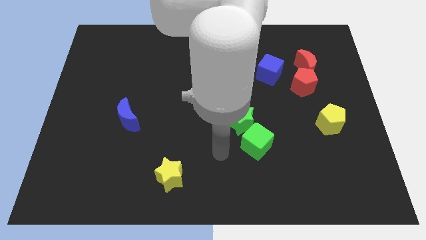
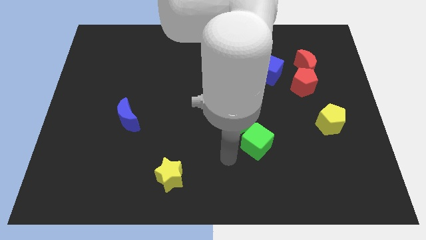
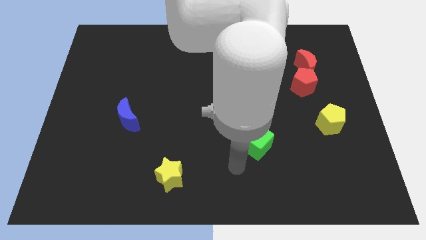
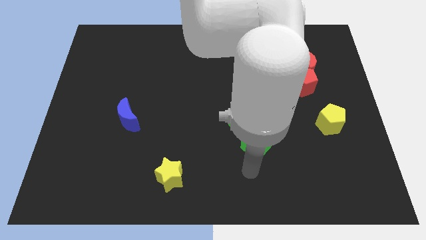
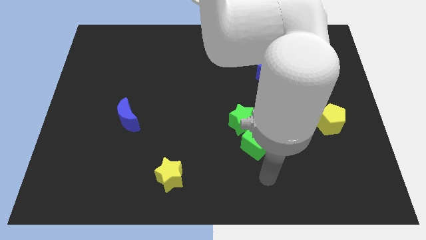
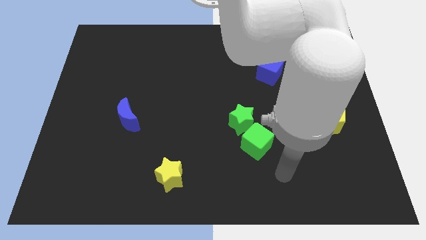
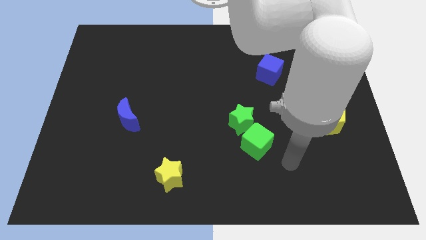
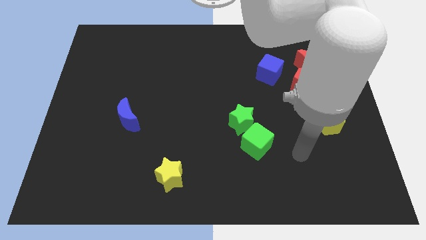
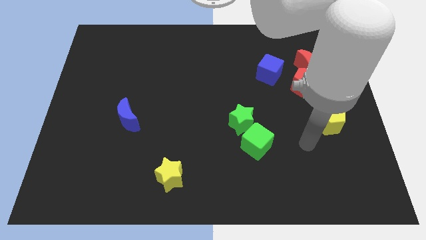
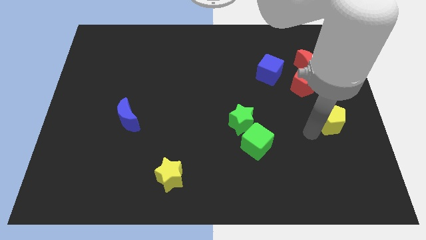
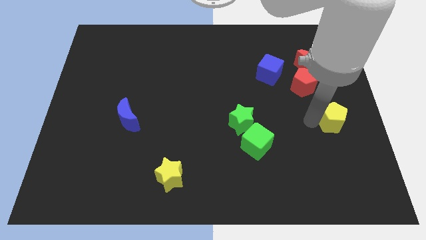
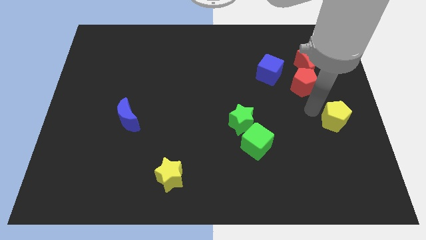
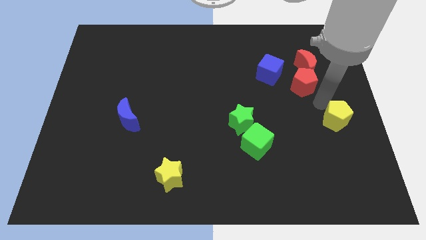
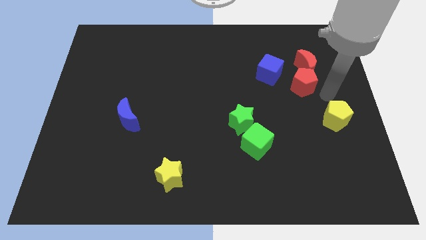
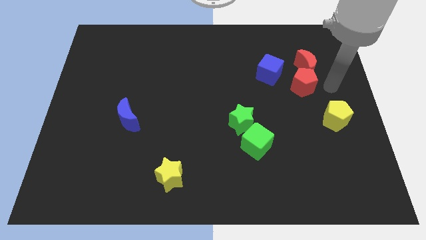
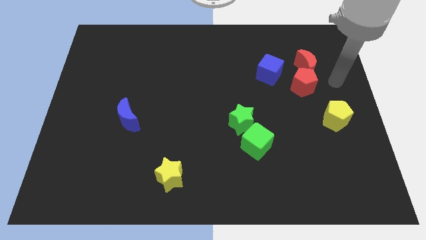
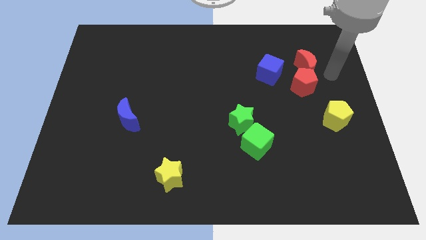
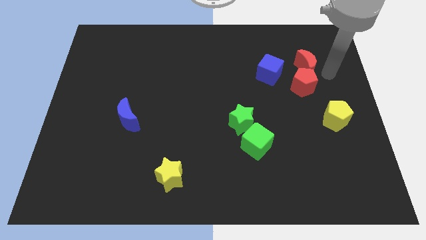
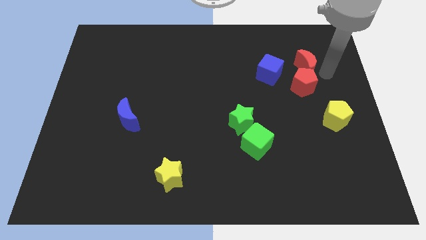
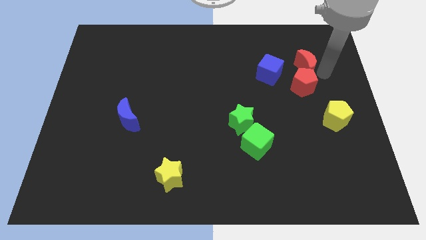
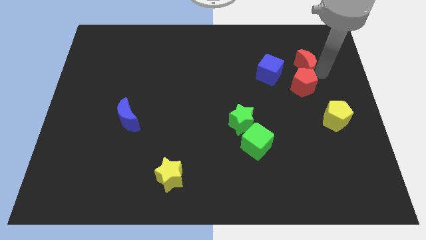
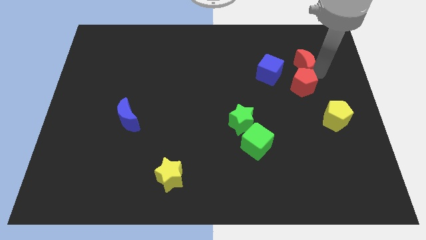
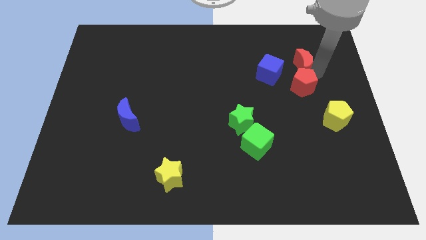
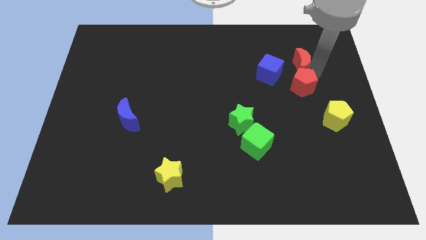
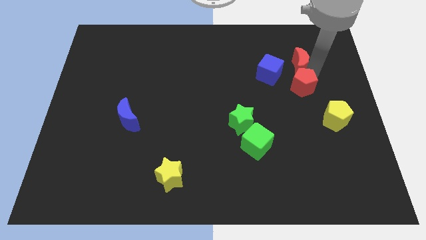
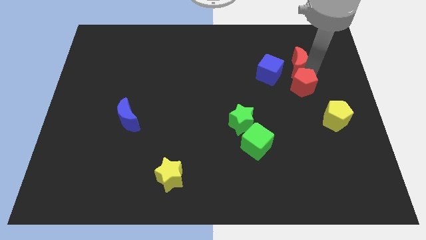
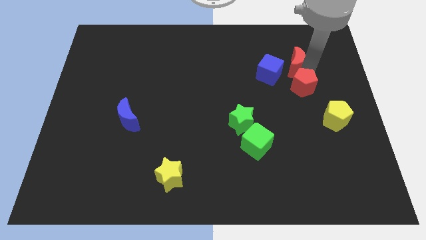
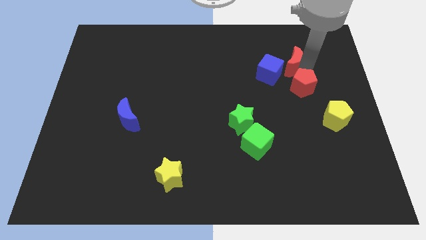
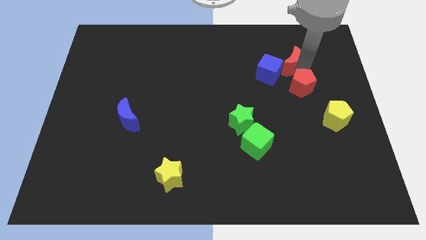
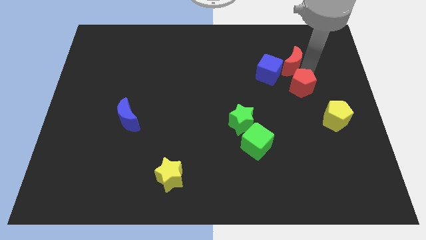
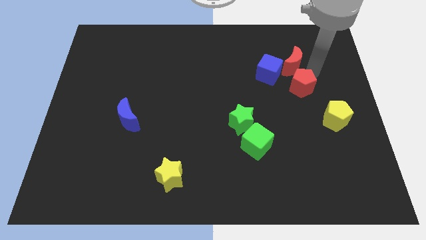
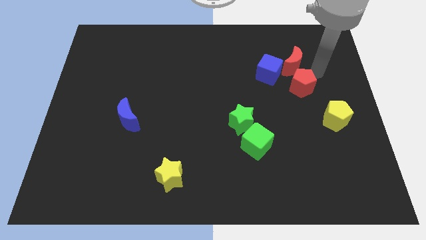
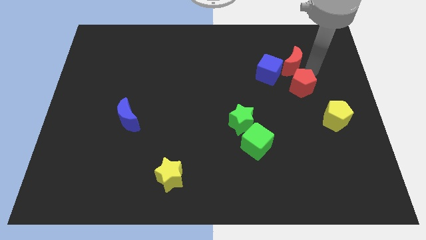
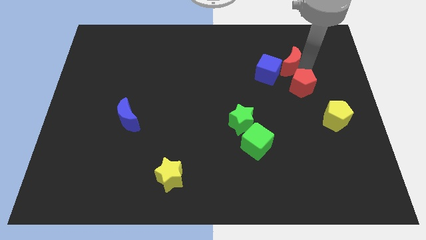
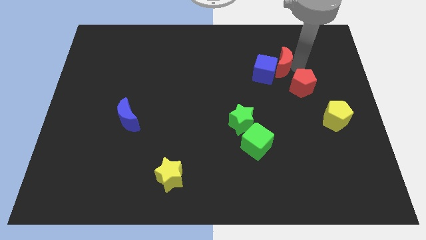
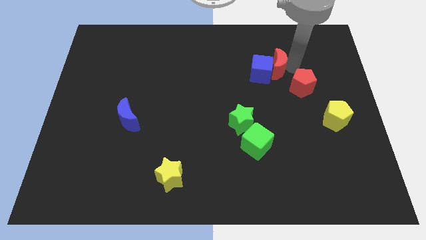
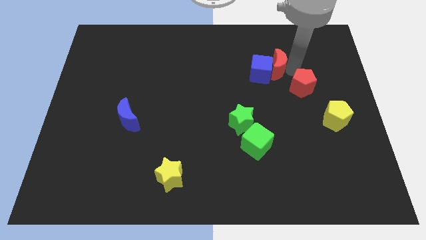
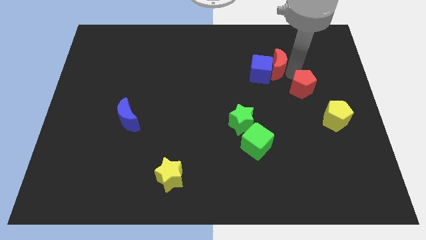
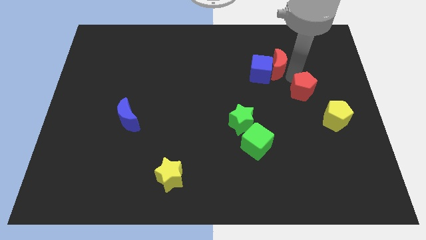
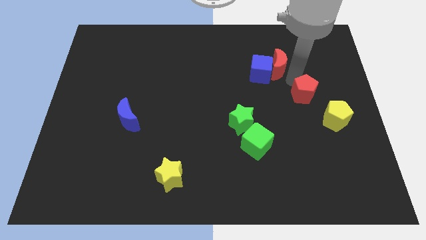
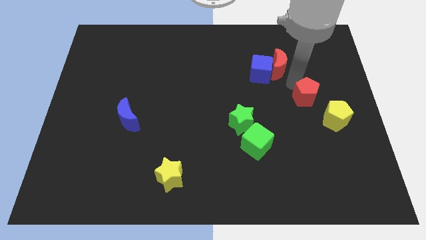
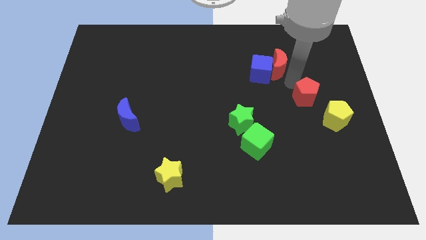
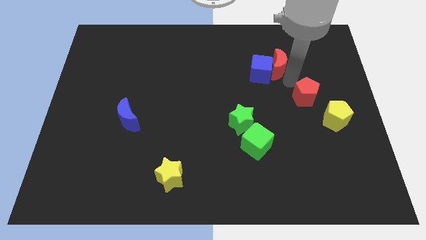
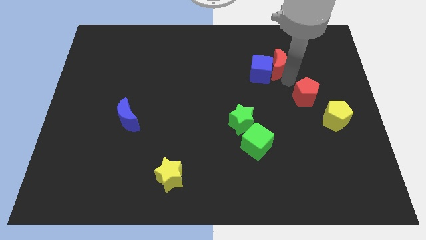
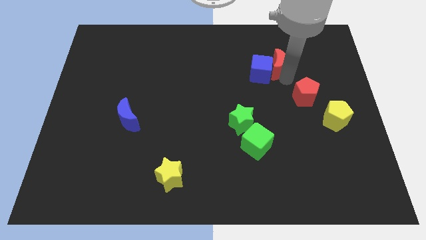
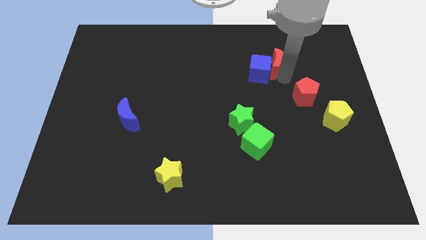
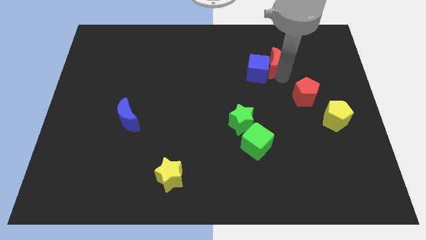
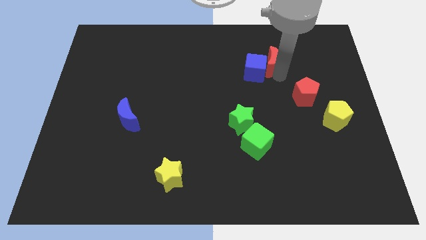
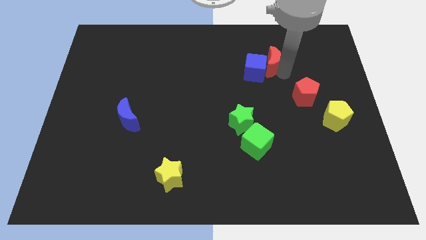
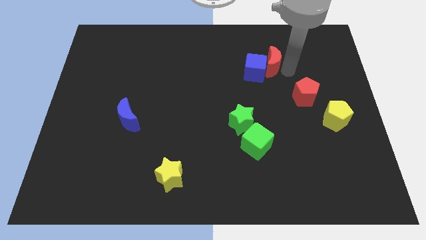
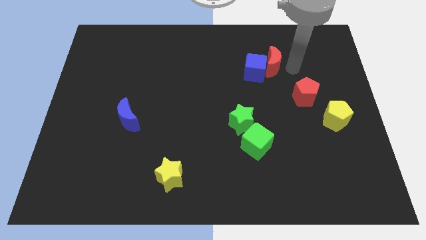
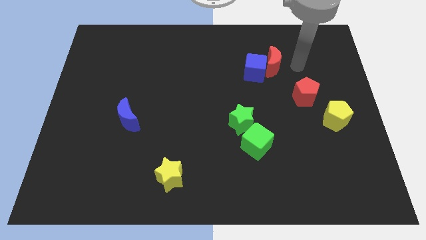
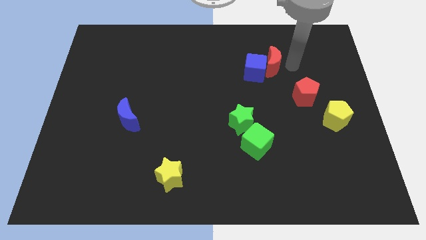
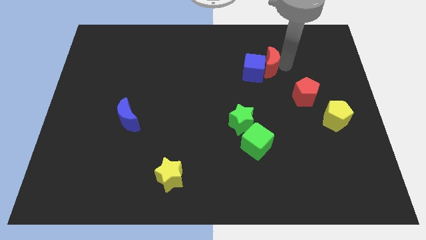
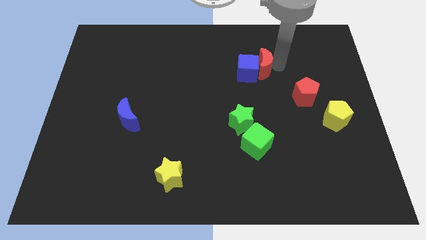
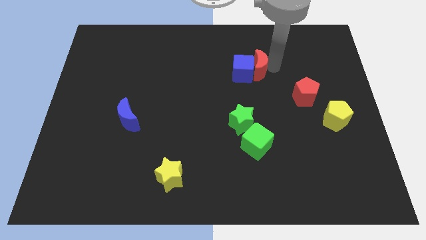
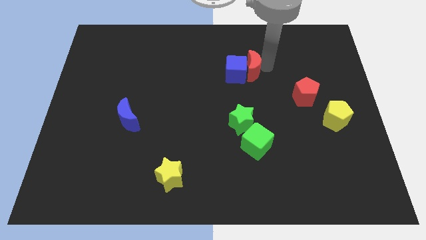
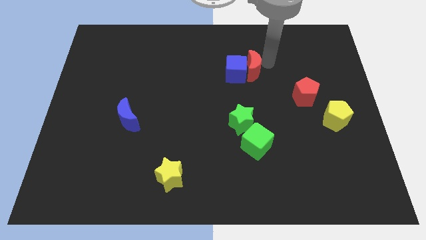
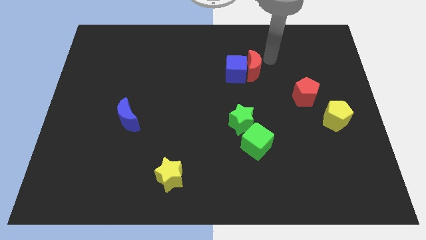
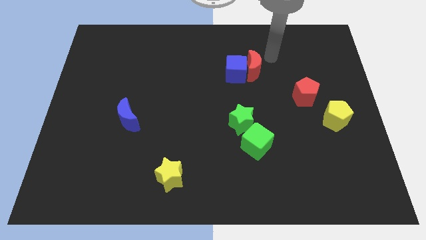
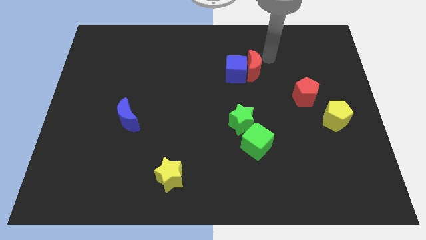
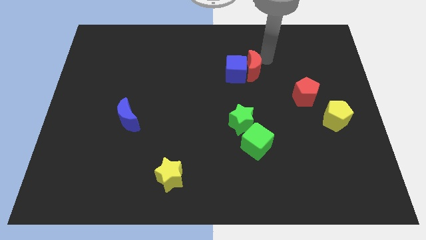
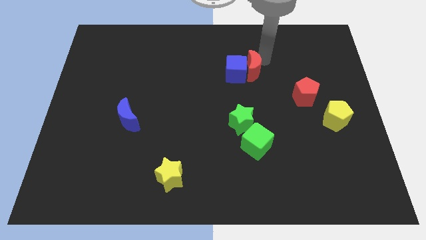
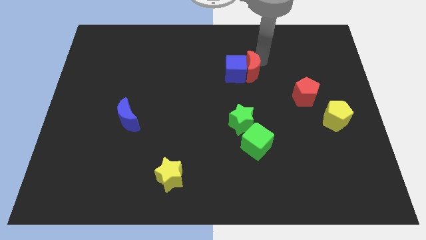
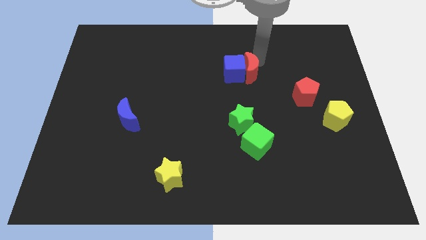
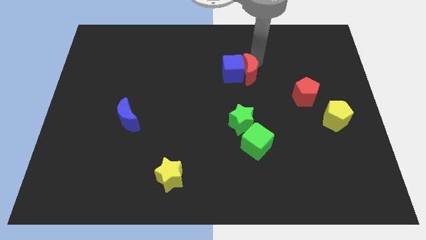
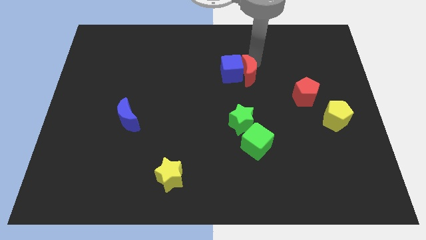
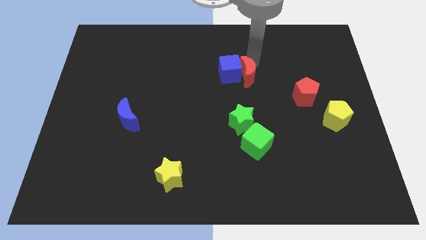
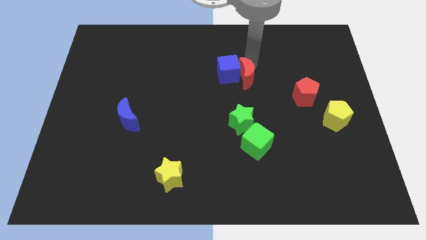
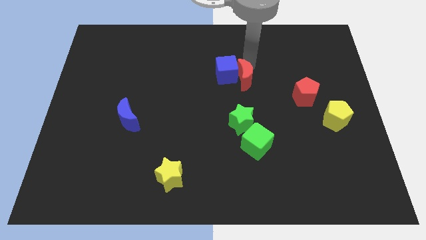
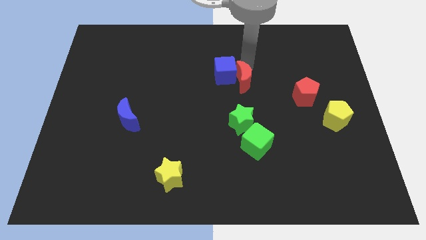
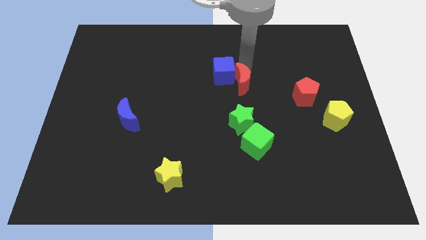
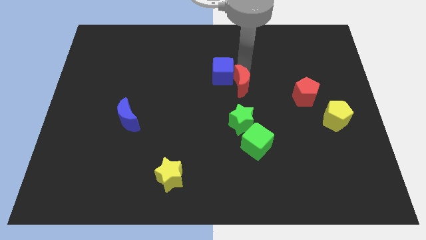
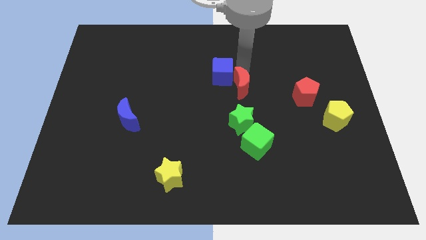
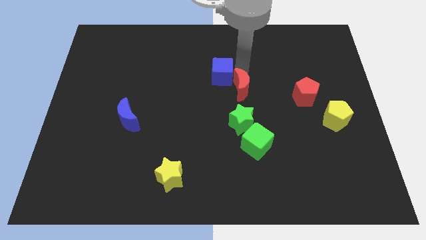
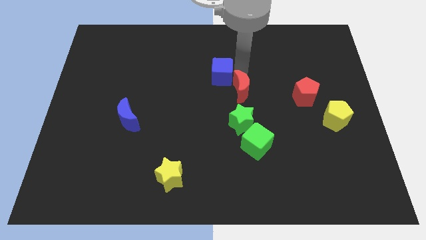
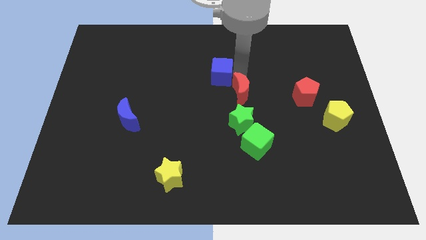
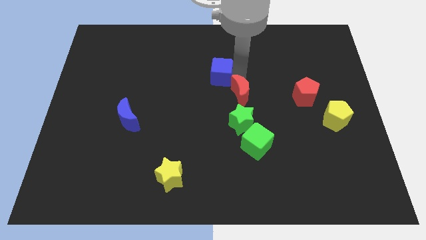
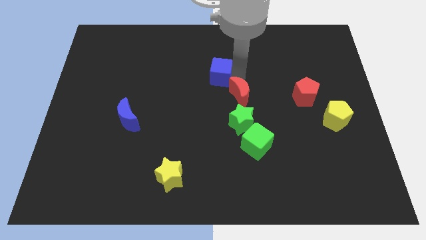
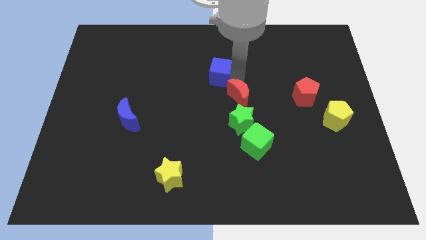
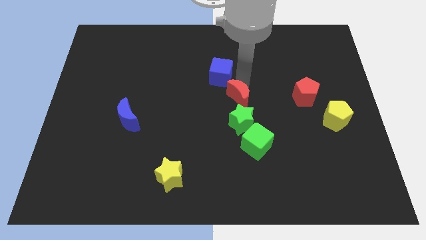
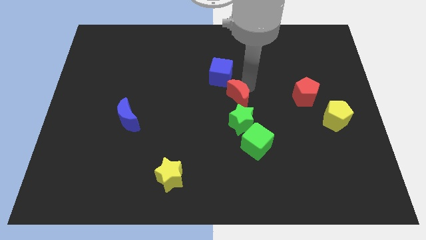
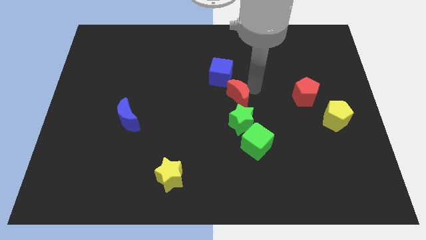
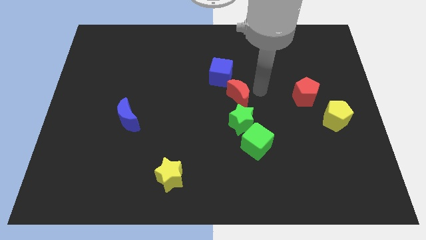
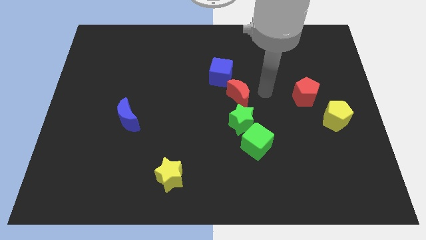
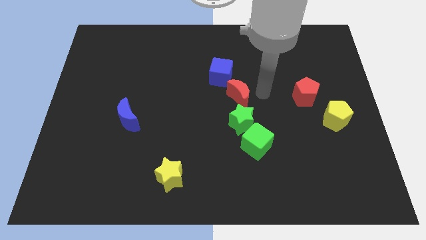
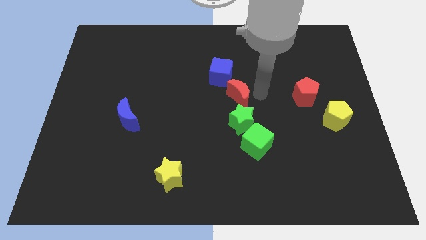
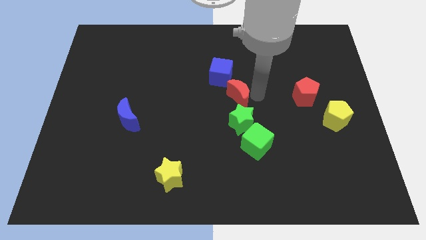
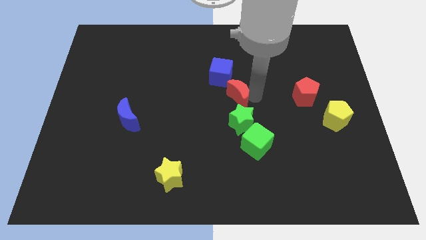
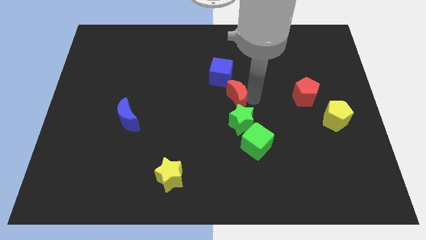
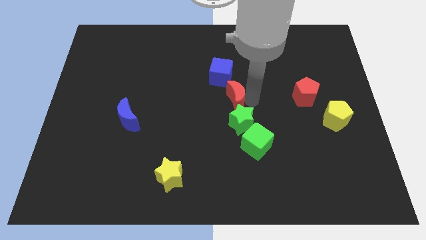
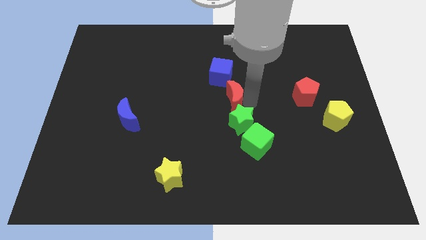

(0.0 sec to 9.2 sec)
slide the red moon down and to the left diagonally
